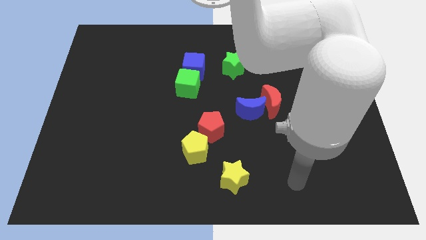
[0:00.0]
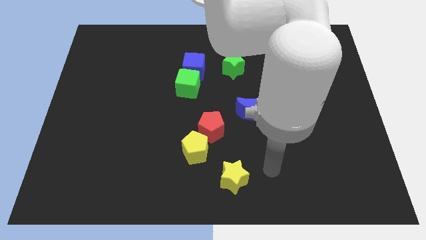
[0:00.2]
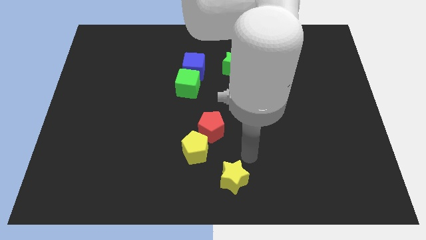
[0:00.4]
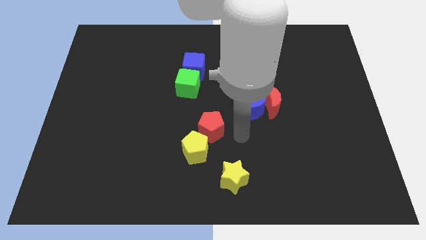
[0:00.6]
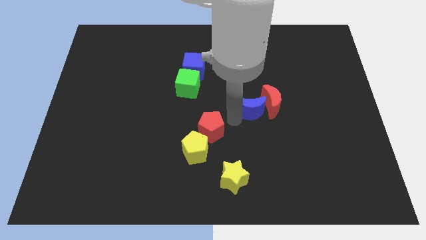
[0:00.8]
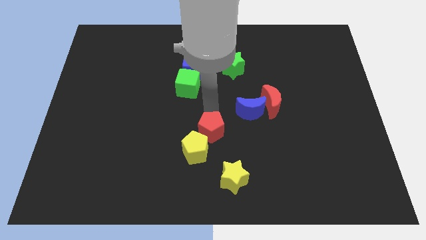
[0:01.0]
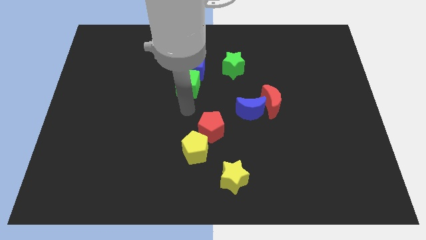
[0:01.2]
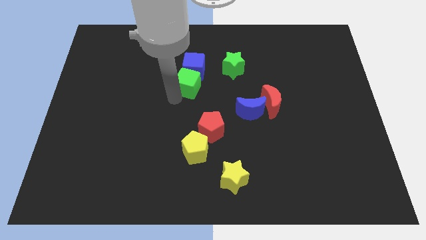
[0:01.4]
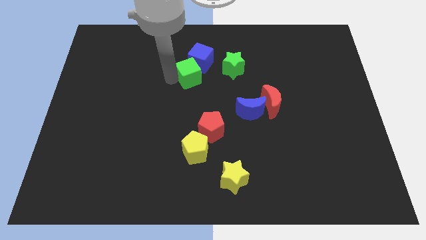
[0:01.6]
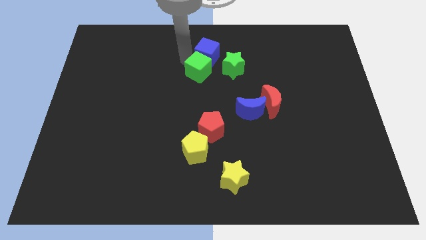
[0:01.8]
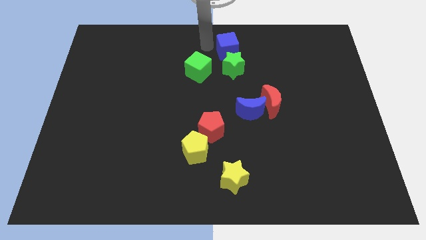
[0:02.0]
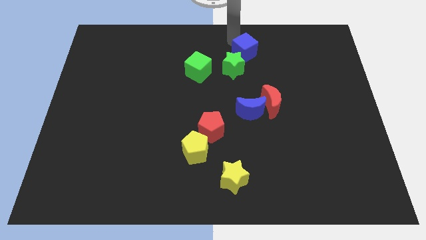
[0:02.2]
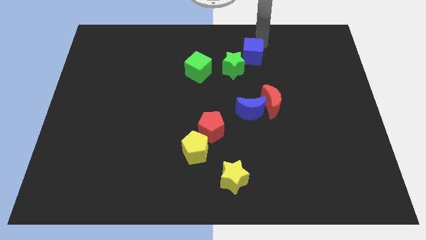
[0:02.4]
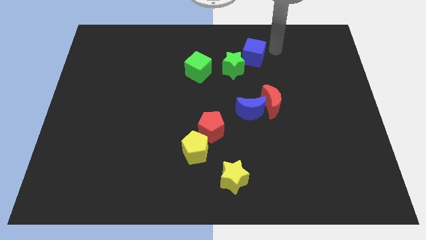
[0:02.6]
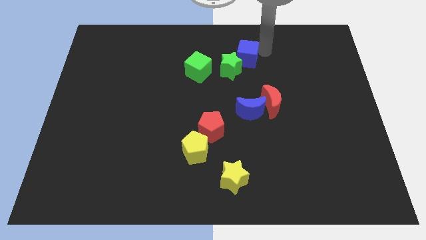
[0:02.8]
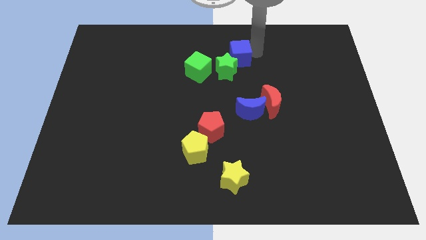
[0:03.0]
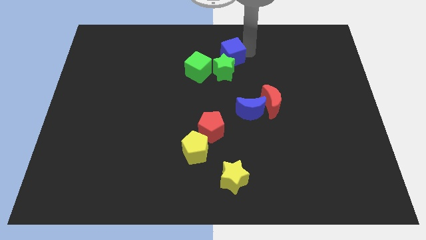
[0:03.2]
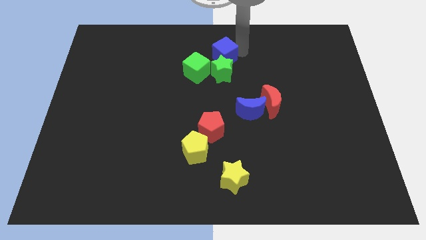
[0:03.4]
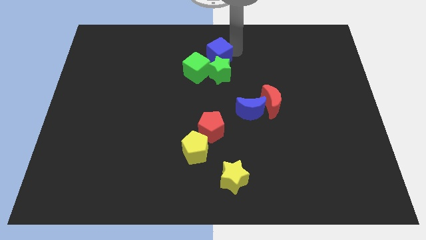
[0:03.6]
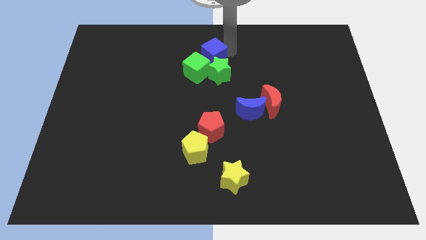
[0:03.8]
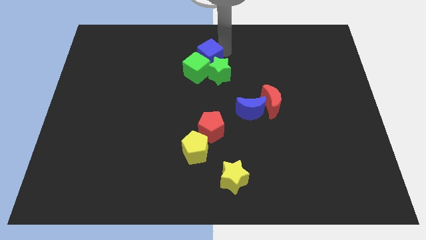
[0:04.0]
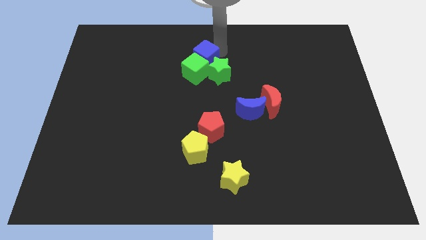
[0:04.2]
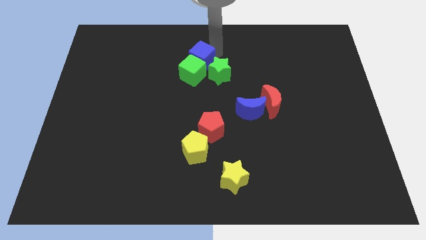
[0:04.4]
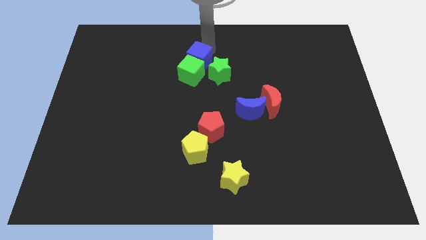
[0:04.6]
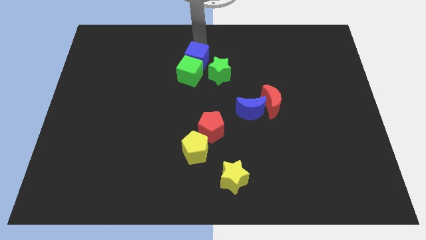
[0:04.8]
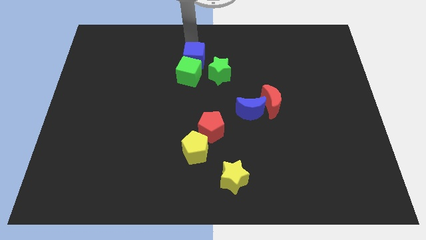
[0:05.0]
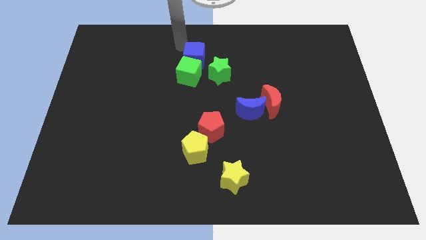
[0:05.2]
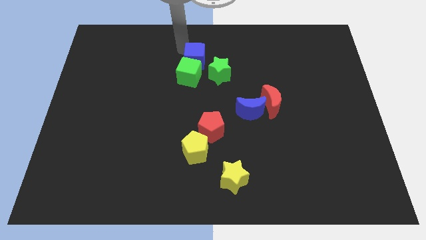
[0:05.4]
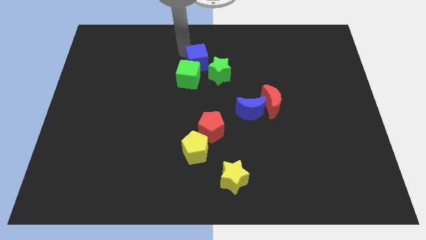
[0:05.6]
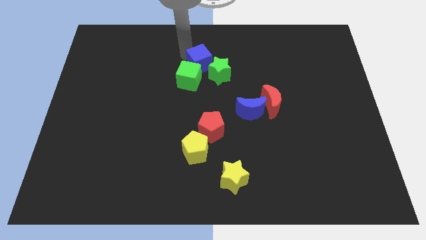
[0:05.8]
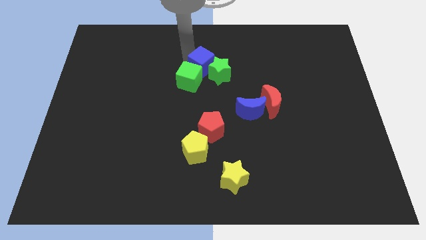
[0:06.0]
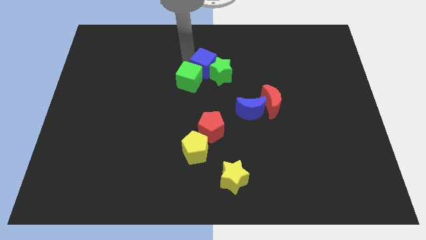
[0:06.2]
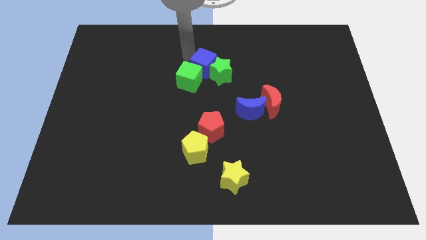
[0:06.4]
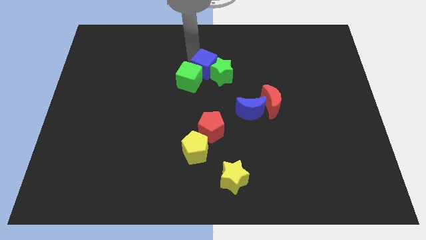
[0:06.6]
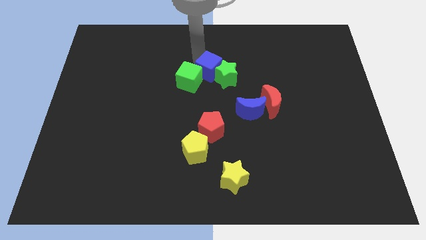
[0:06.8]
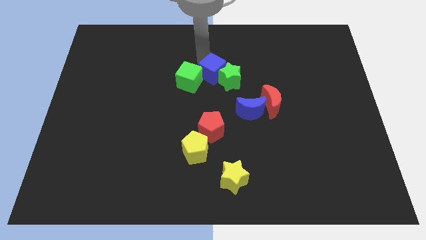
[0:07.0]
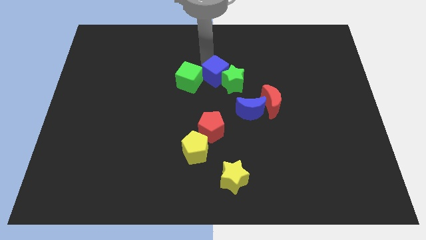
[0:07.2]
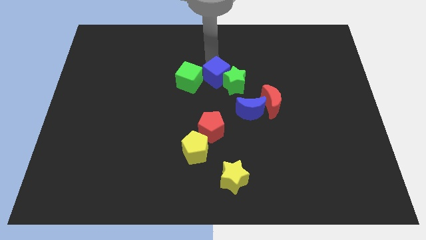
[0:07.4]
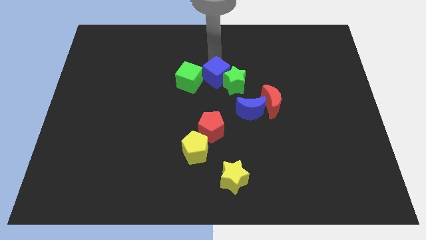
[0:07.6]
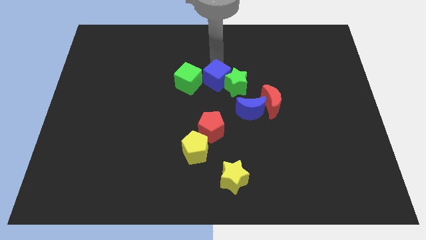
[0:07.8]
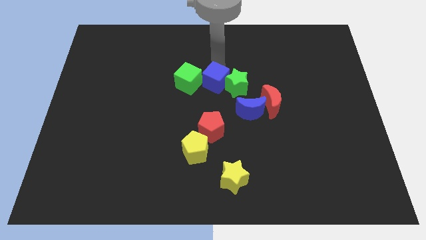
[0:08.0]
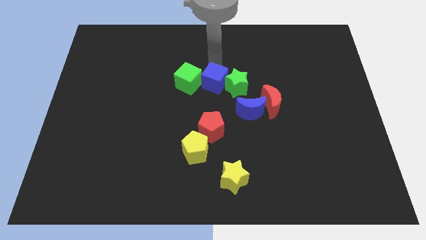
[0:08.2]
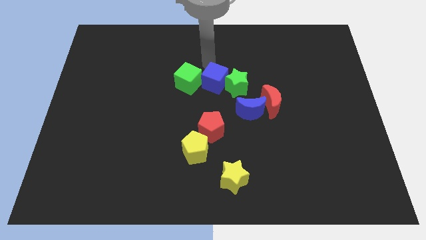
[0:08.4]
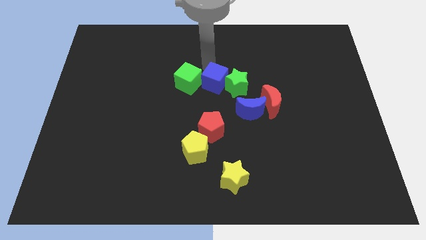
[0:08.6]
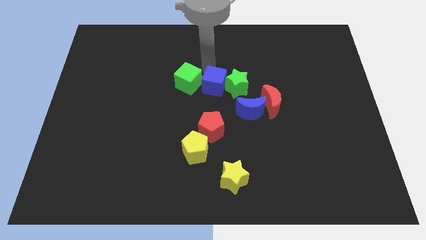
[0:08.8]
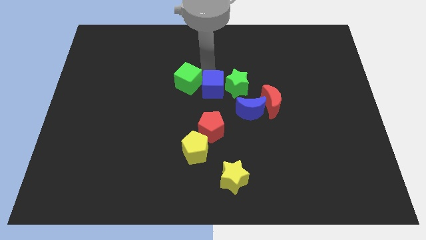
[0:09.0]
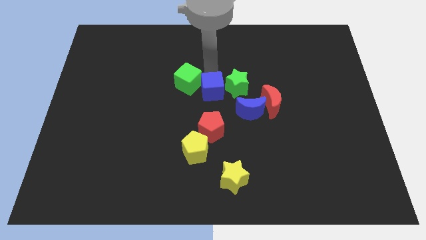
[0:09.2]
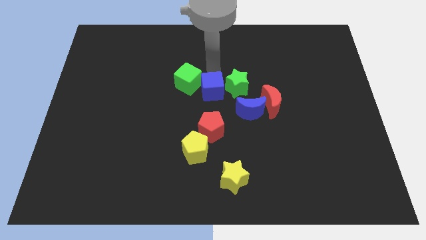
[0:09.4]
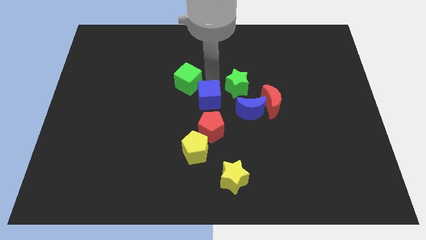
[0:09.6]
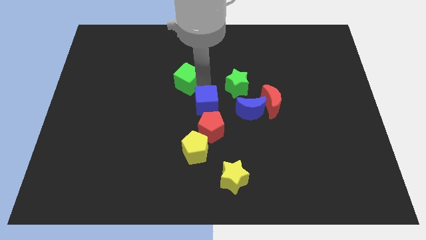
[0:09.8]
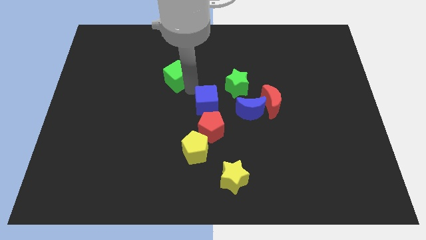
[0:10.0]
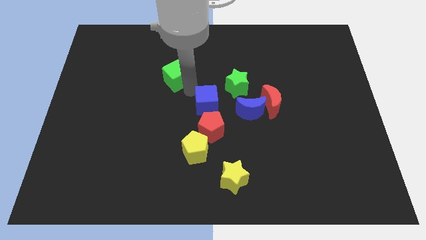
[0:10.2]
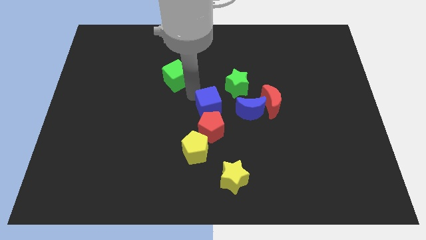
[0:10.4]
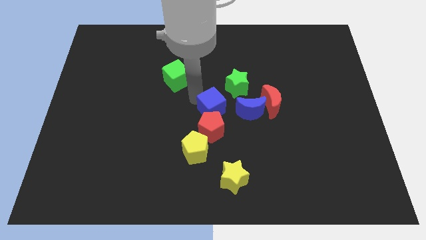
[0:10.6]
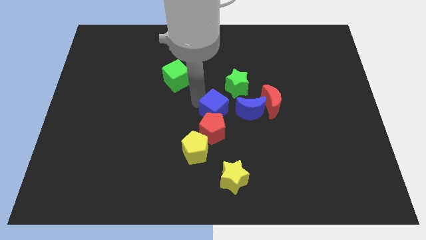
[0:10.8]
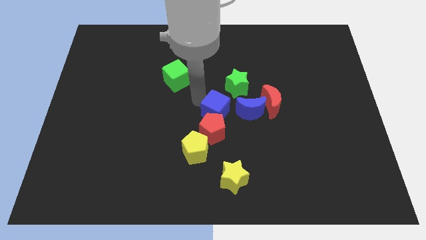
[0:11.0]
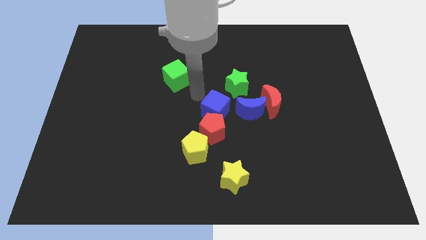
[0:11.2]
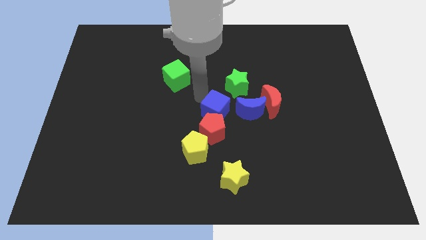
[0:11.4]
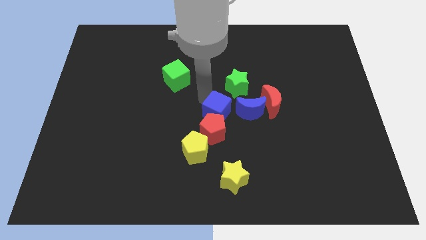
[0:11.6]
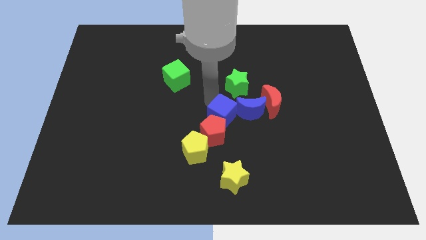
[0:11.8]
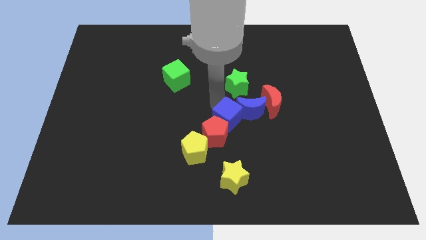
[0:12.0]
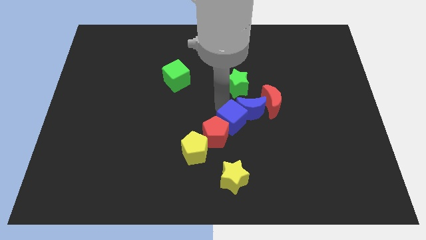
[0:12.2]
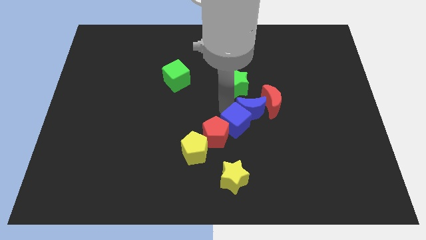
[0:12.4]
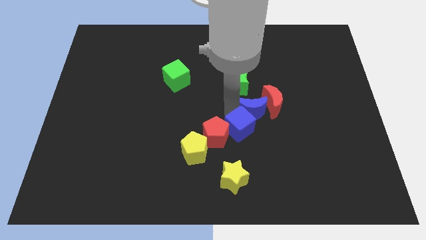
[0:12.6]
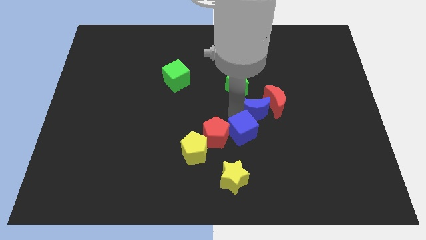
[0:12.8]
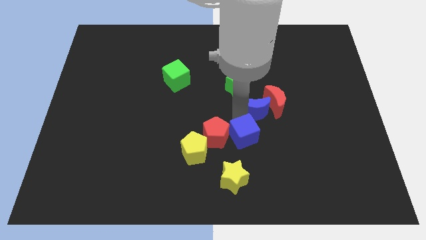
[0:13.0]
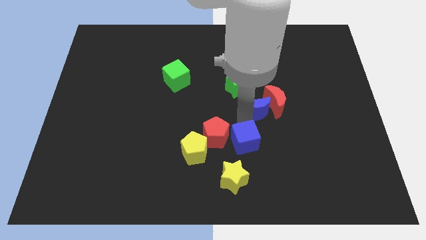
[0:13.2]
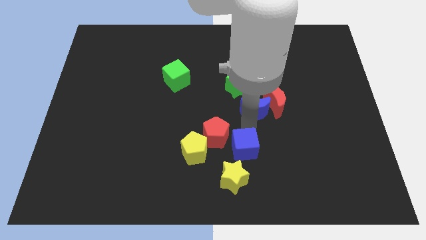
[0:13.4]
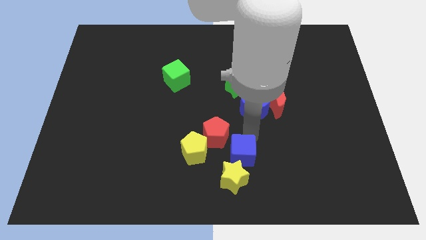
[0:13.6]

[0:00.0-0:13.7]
put the blue cube towards the yellow star

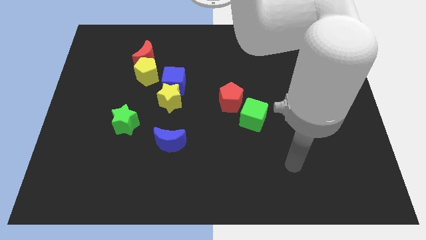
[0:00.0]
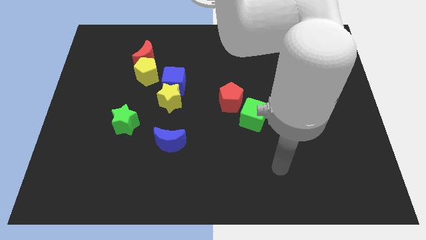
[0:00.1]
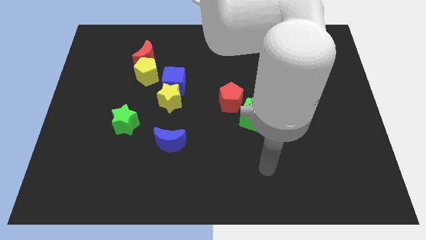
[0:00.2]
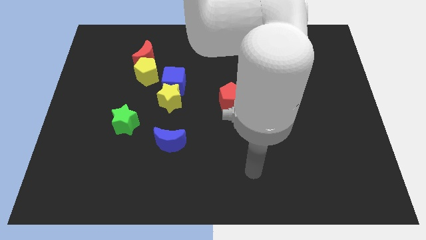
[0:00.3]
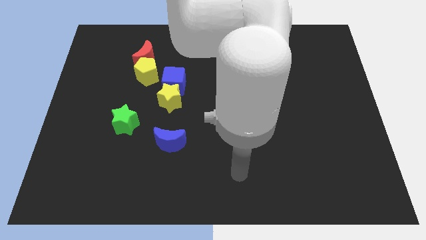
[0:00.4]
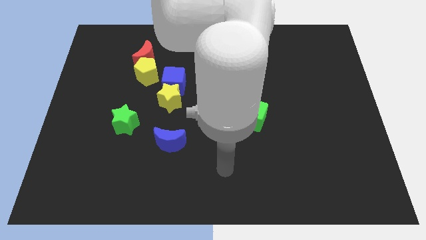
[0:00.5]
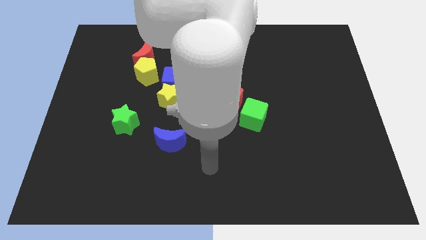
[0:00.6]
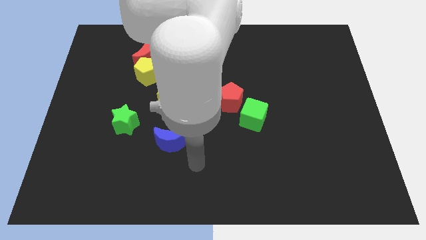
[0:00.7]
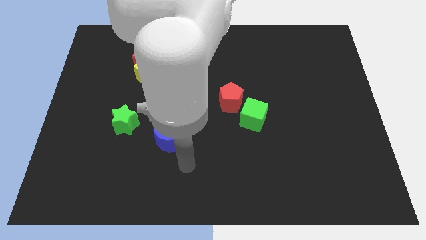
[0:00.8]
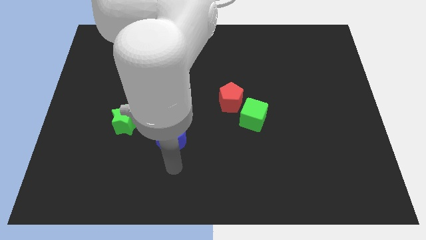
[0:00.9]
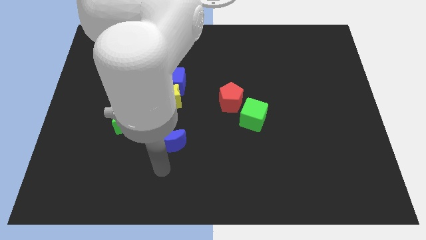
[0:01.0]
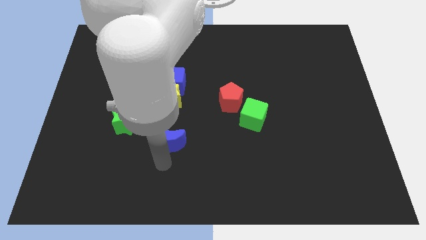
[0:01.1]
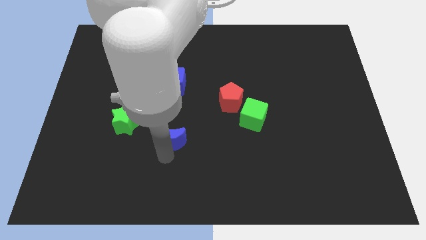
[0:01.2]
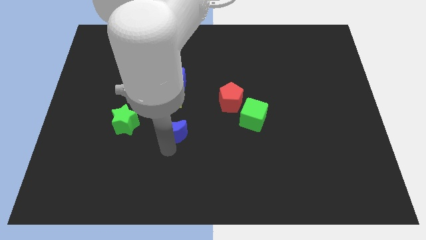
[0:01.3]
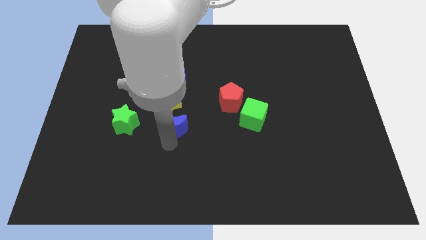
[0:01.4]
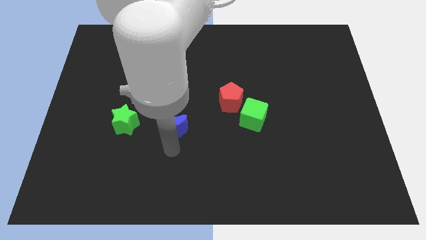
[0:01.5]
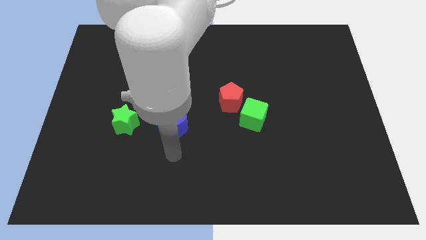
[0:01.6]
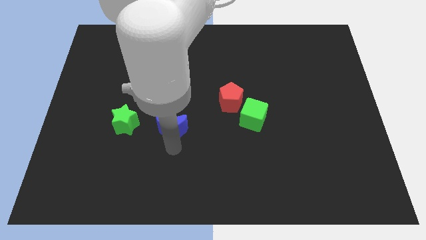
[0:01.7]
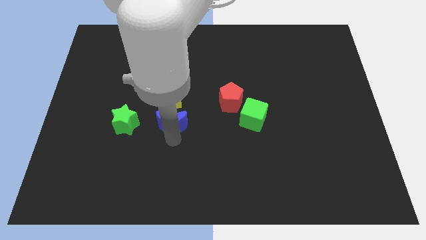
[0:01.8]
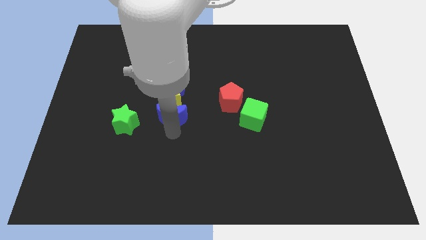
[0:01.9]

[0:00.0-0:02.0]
put the blue moon towards the yellow star
